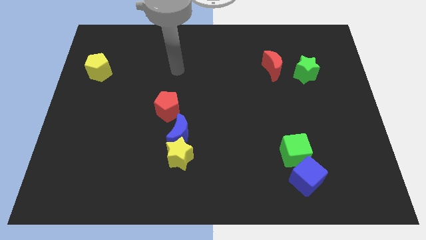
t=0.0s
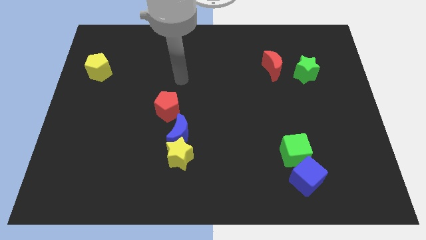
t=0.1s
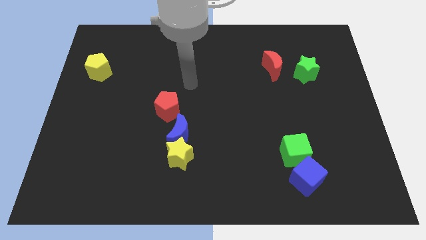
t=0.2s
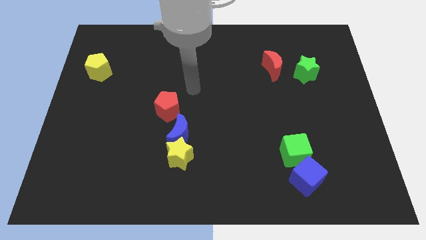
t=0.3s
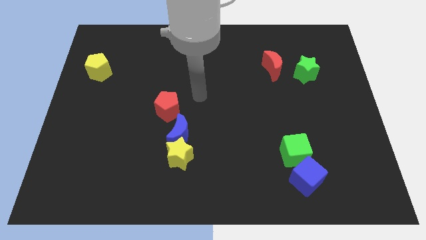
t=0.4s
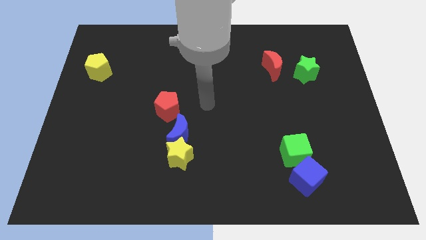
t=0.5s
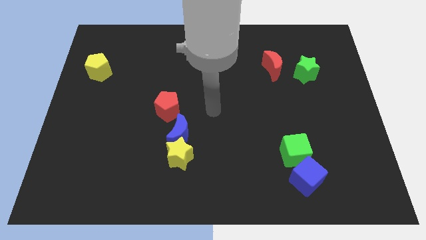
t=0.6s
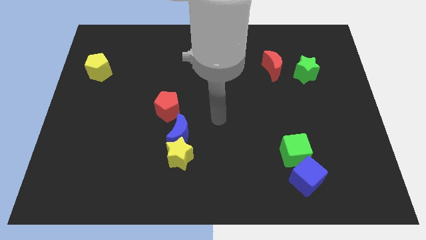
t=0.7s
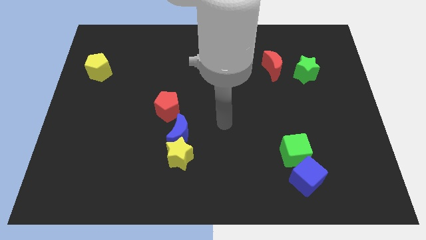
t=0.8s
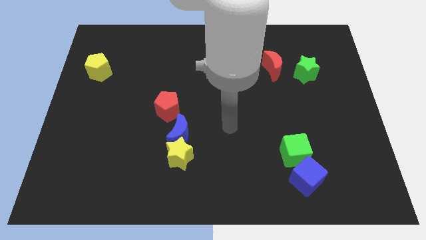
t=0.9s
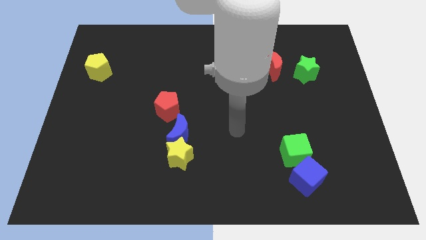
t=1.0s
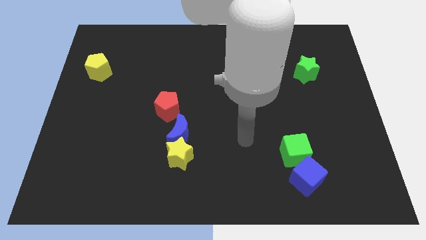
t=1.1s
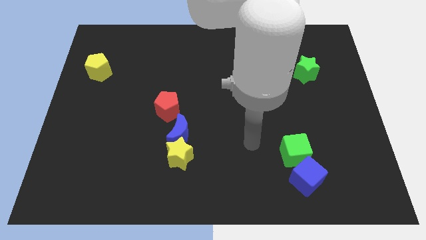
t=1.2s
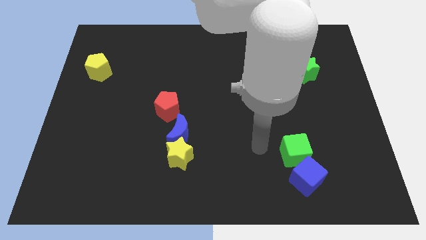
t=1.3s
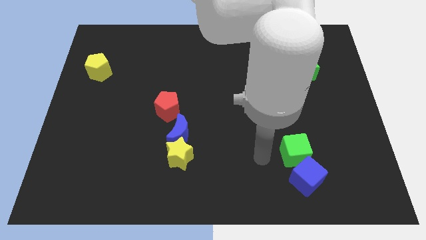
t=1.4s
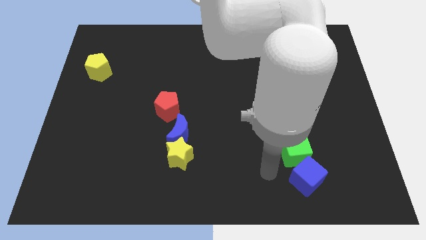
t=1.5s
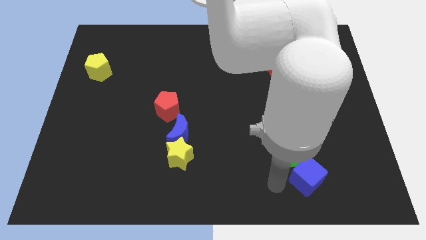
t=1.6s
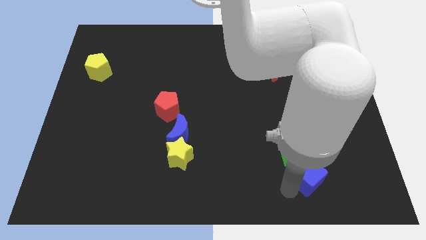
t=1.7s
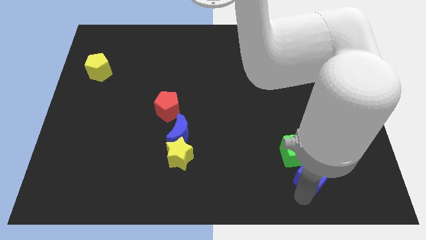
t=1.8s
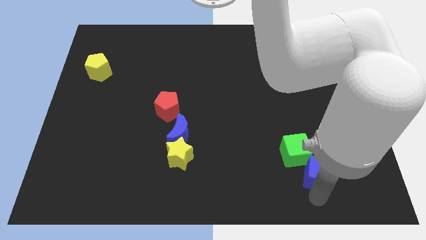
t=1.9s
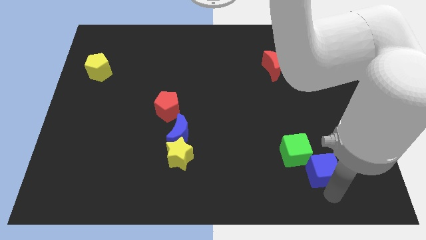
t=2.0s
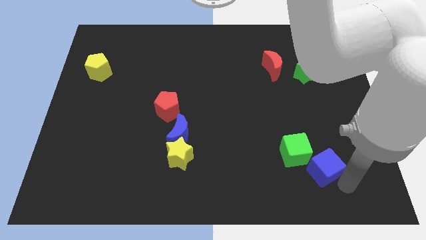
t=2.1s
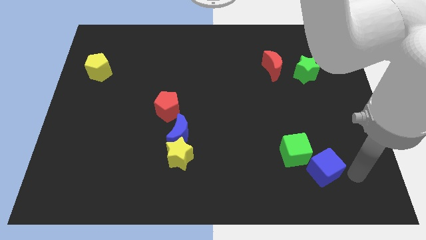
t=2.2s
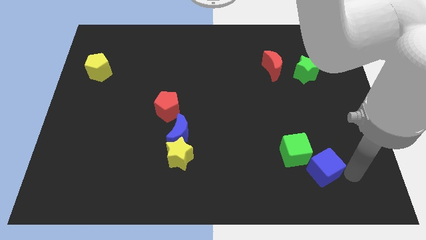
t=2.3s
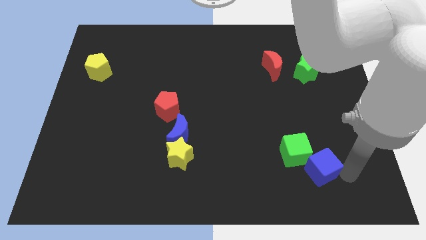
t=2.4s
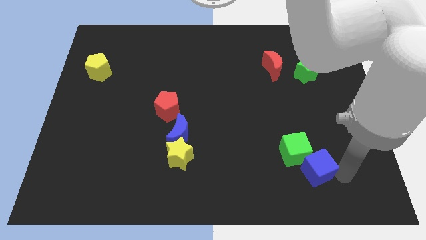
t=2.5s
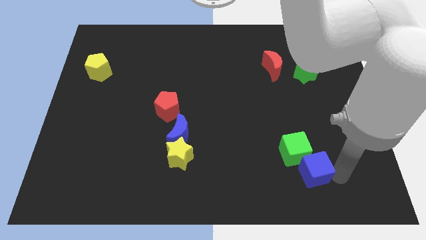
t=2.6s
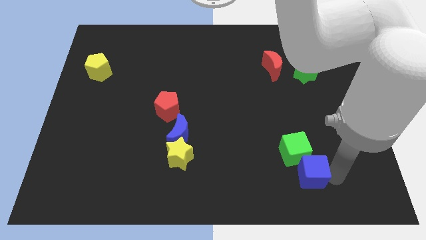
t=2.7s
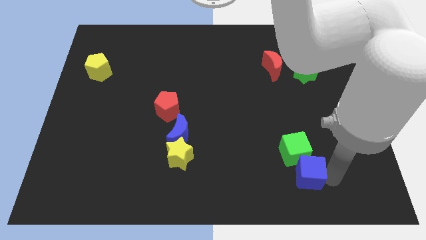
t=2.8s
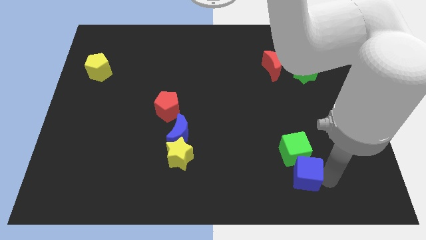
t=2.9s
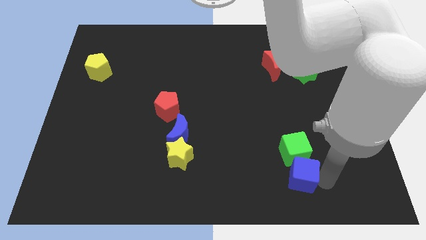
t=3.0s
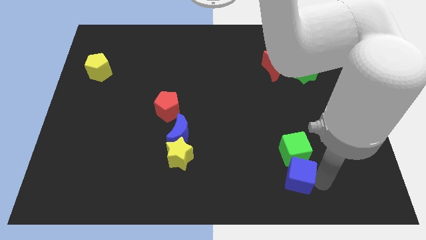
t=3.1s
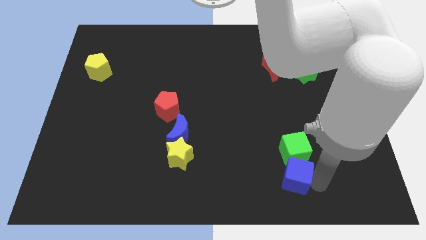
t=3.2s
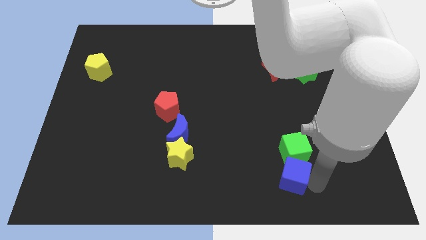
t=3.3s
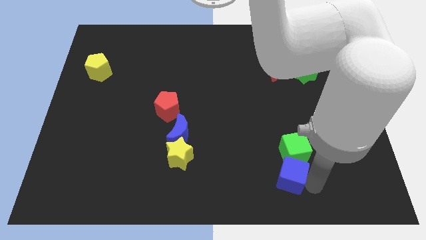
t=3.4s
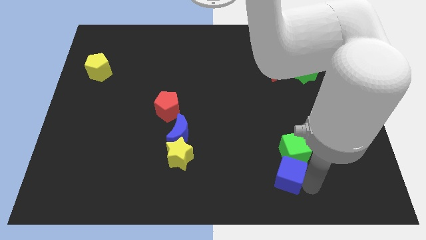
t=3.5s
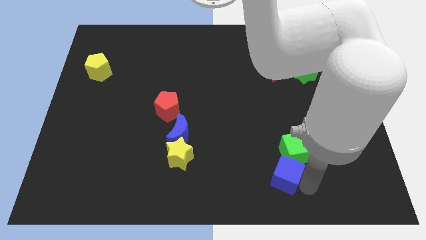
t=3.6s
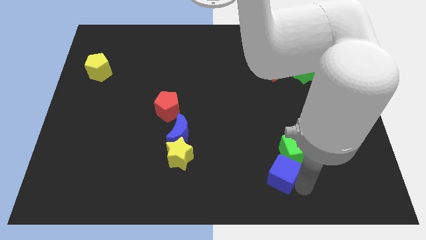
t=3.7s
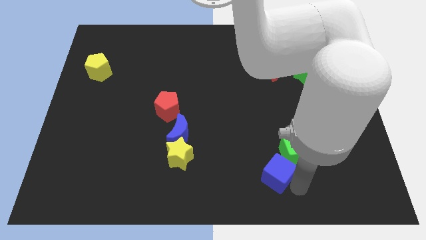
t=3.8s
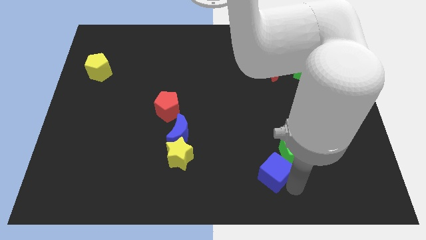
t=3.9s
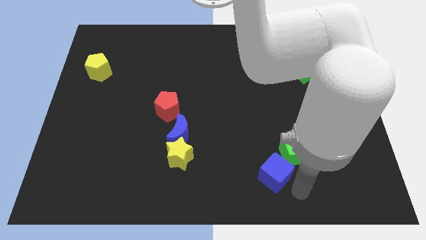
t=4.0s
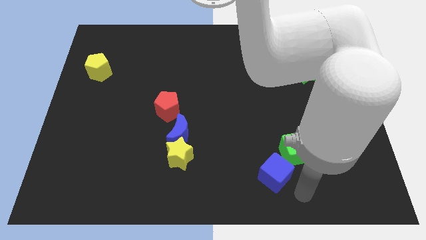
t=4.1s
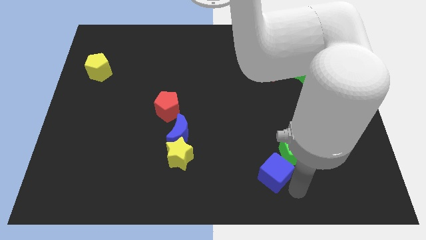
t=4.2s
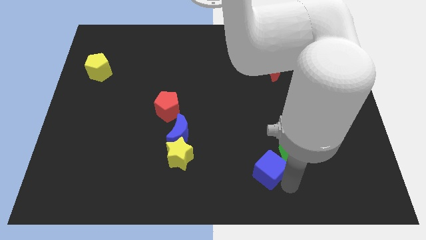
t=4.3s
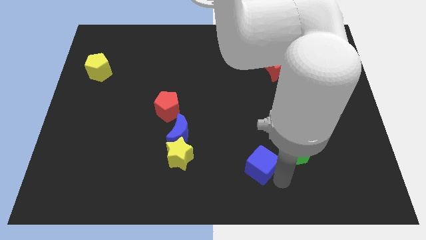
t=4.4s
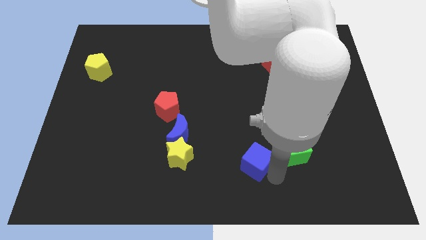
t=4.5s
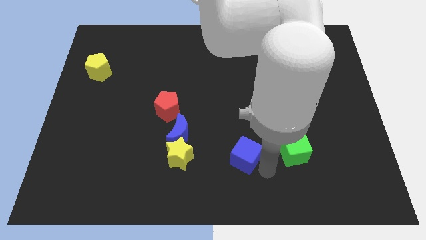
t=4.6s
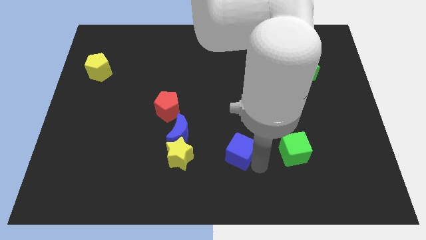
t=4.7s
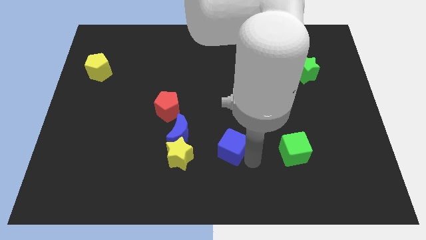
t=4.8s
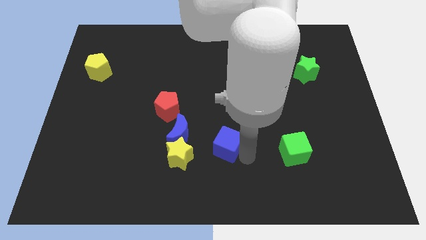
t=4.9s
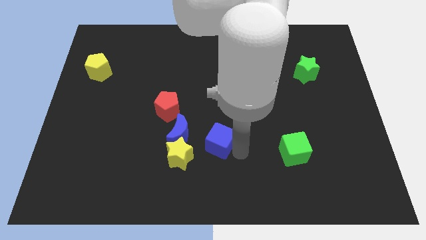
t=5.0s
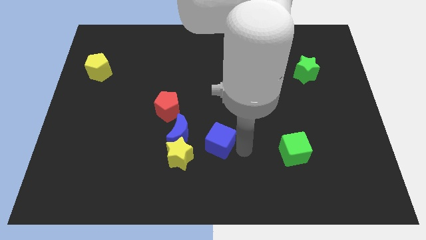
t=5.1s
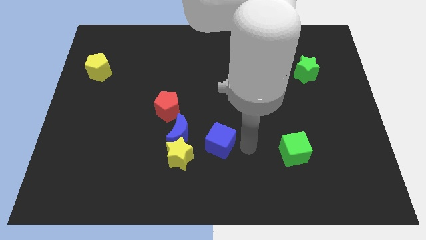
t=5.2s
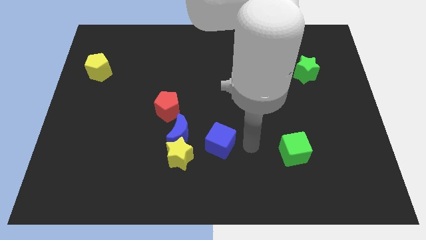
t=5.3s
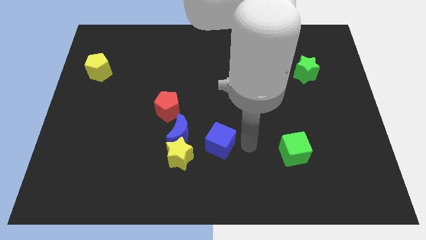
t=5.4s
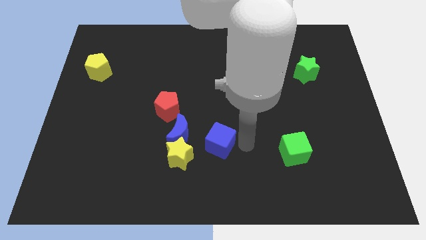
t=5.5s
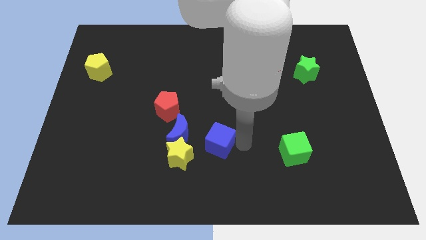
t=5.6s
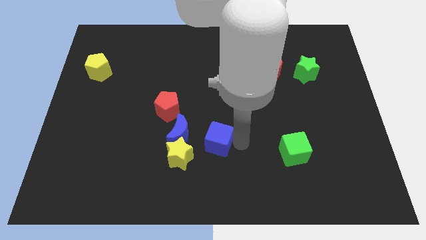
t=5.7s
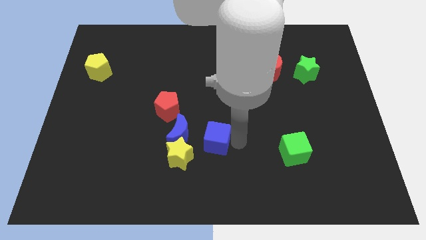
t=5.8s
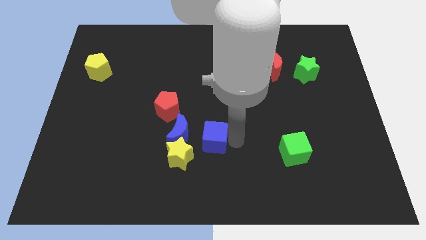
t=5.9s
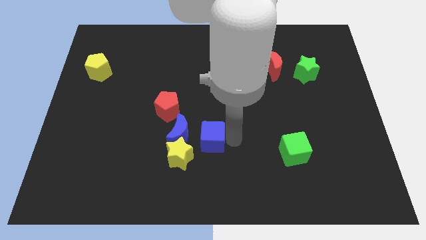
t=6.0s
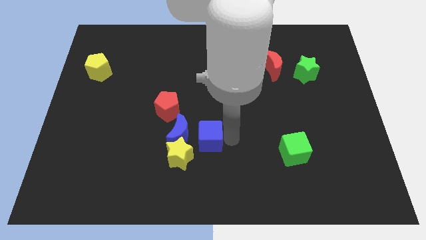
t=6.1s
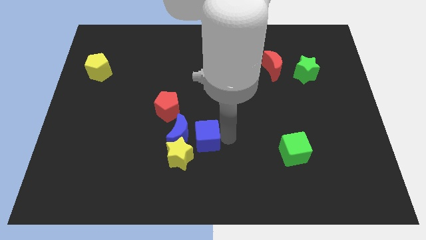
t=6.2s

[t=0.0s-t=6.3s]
slide the blue cube next to the blue moon

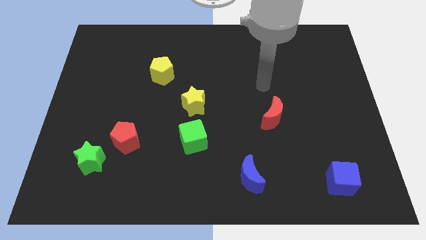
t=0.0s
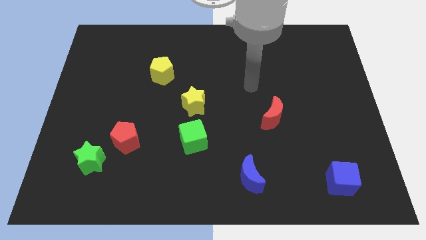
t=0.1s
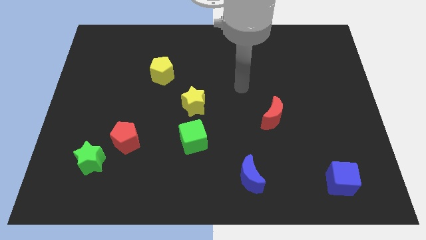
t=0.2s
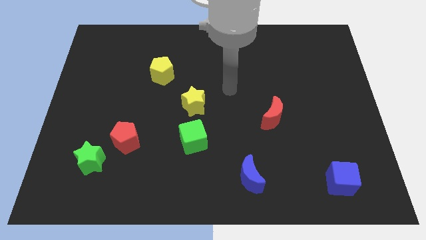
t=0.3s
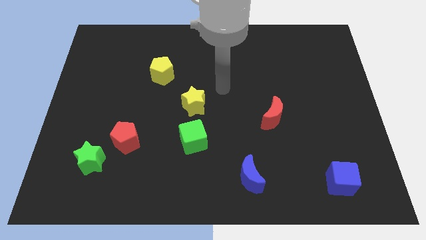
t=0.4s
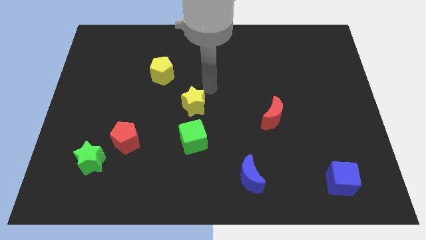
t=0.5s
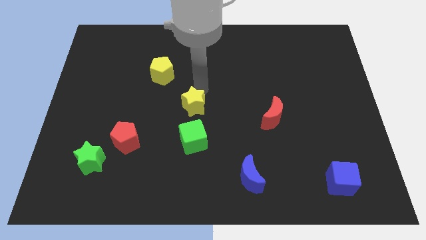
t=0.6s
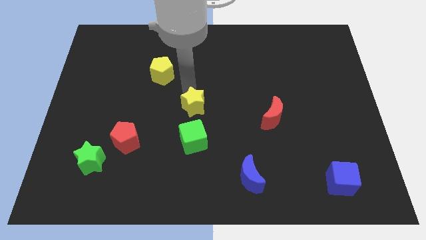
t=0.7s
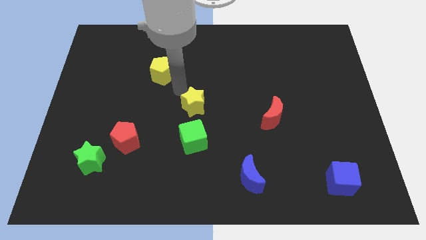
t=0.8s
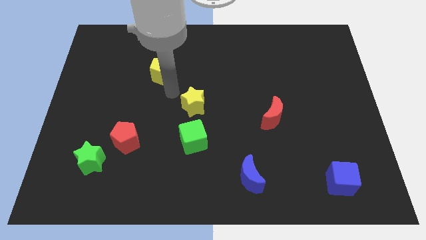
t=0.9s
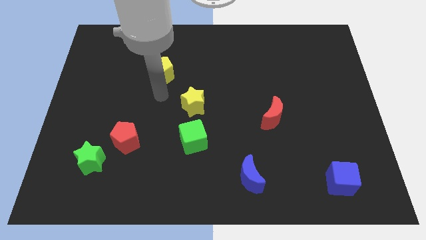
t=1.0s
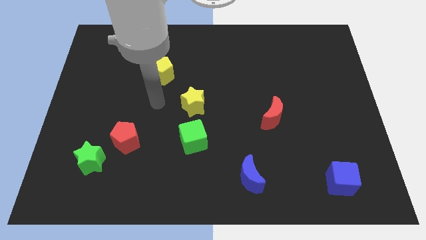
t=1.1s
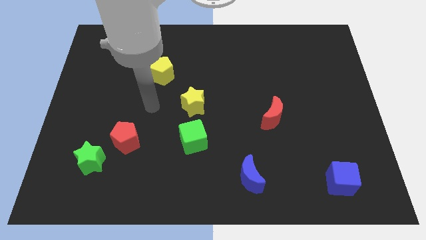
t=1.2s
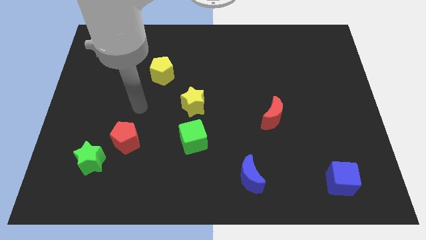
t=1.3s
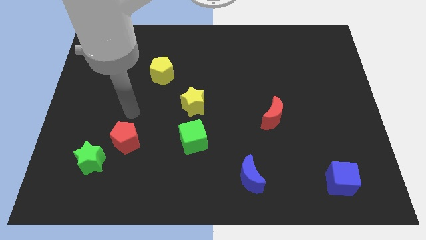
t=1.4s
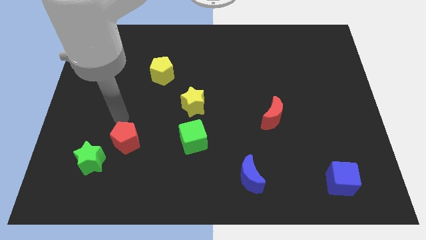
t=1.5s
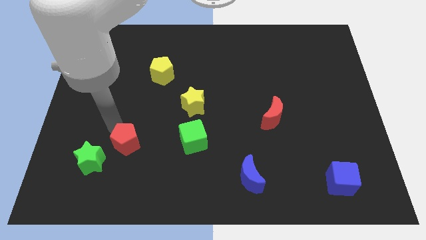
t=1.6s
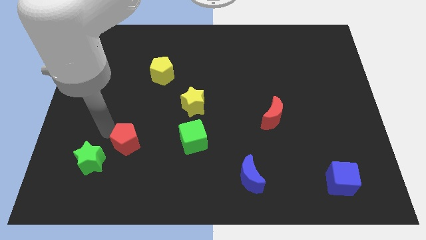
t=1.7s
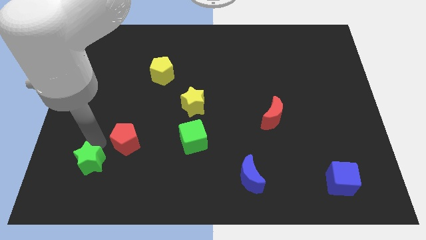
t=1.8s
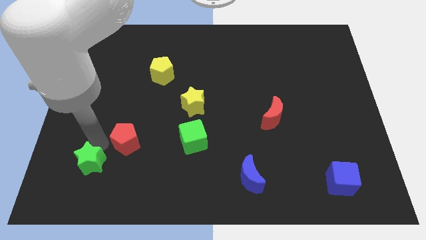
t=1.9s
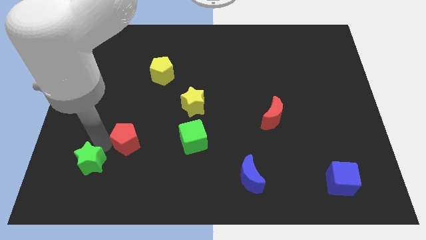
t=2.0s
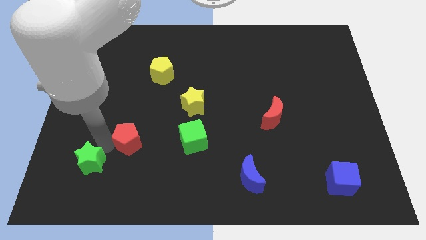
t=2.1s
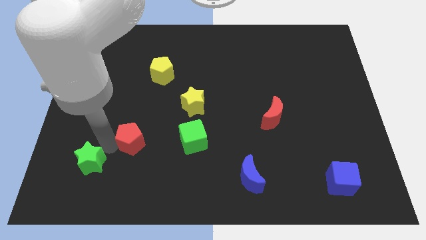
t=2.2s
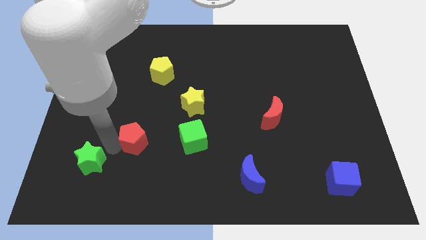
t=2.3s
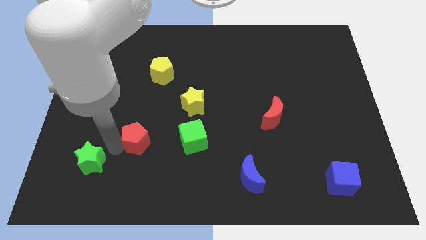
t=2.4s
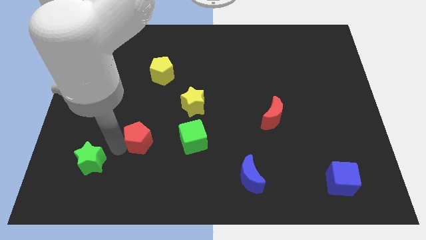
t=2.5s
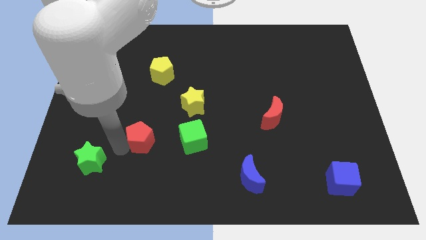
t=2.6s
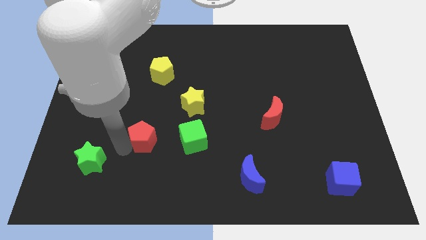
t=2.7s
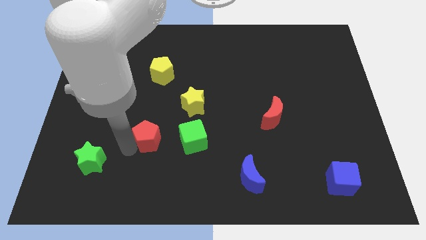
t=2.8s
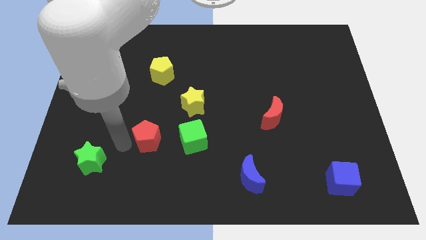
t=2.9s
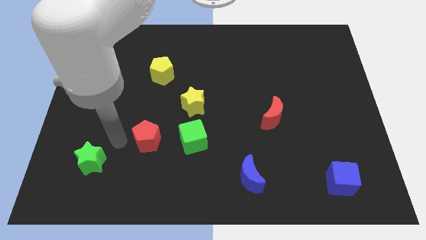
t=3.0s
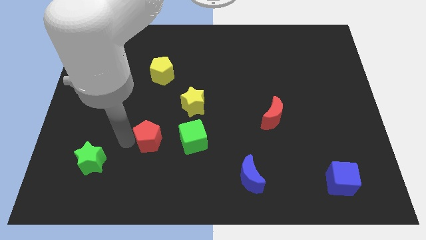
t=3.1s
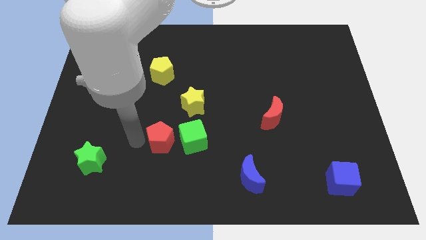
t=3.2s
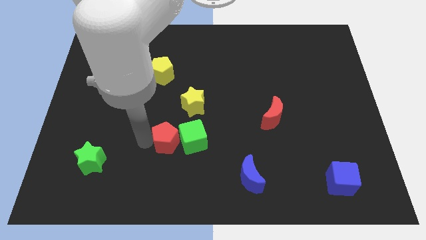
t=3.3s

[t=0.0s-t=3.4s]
put the red pentagon close to the green cube
